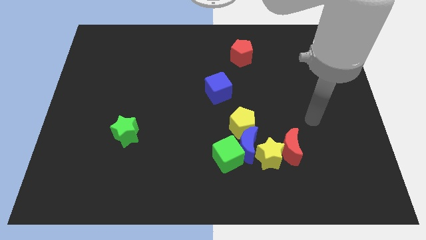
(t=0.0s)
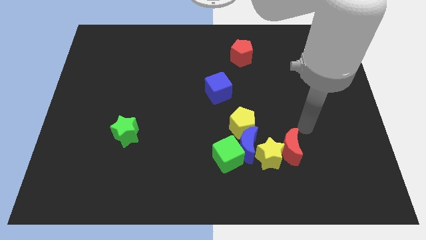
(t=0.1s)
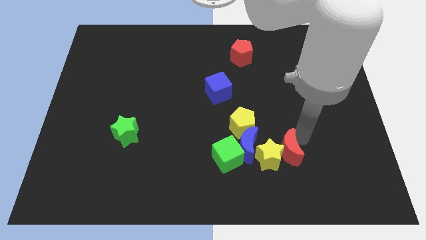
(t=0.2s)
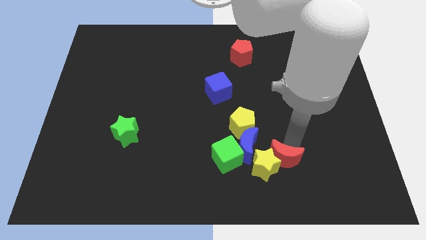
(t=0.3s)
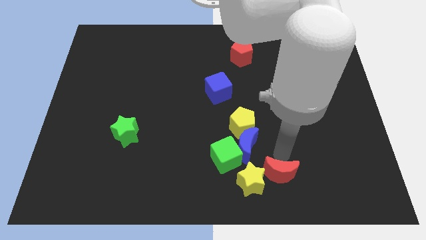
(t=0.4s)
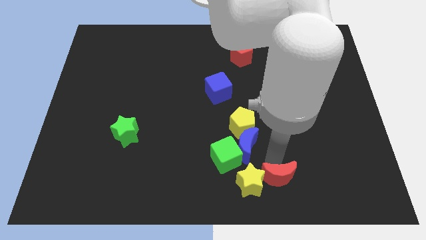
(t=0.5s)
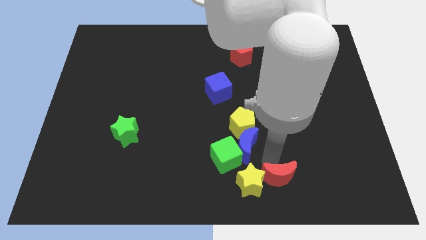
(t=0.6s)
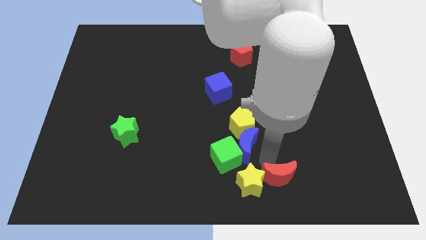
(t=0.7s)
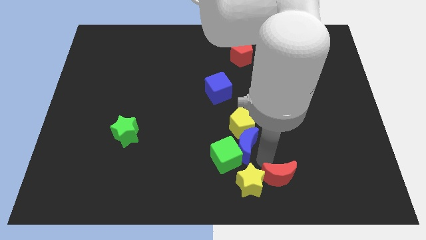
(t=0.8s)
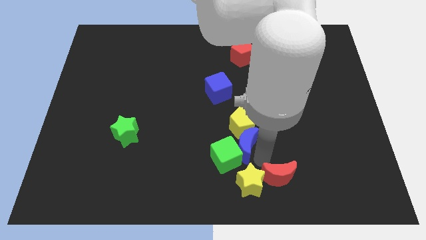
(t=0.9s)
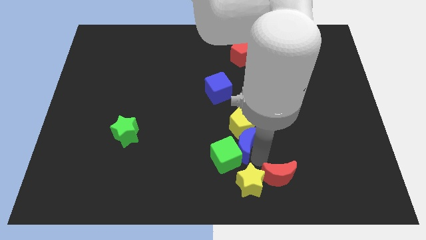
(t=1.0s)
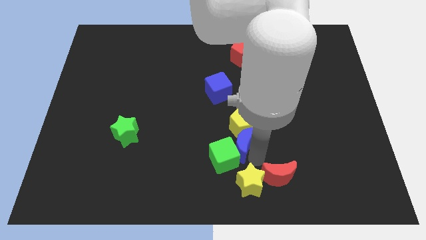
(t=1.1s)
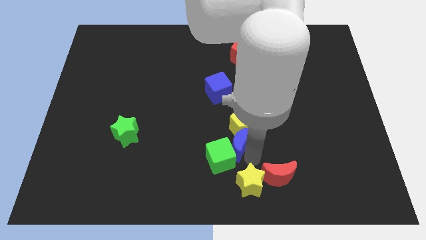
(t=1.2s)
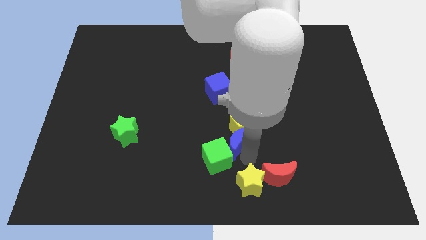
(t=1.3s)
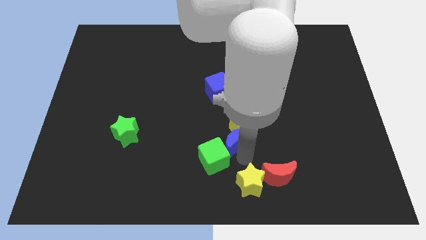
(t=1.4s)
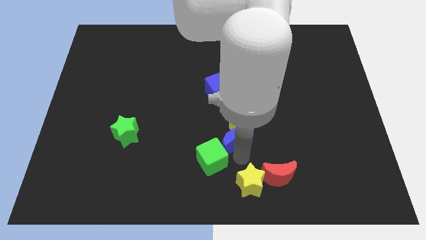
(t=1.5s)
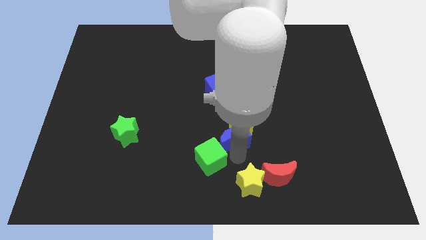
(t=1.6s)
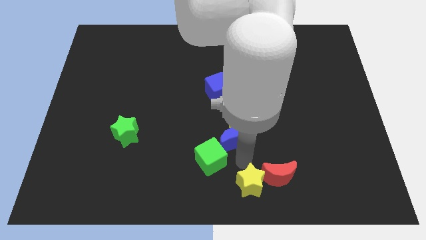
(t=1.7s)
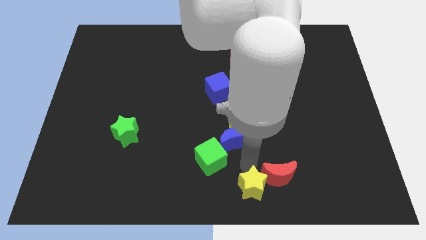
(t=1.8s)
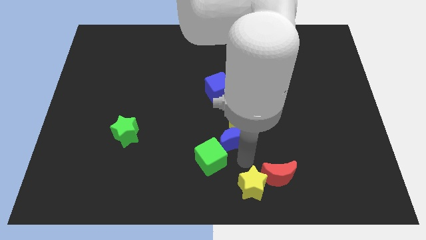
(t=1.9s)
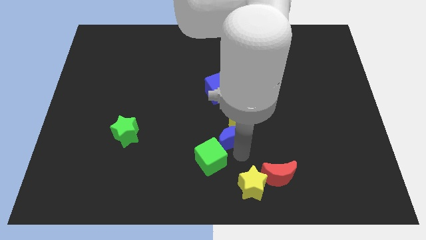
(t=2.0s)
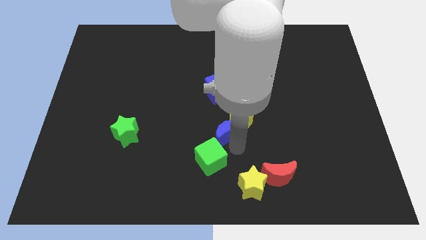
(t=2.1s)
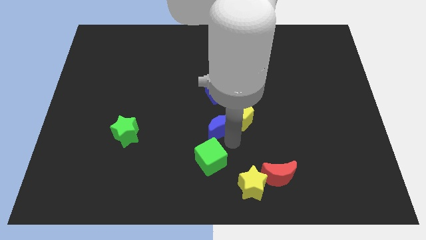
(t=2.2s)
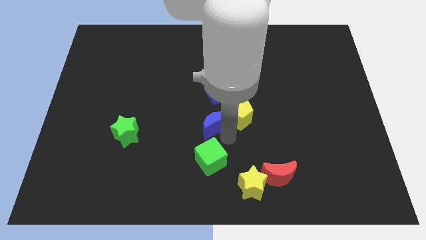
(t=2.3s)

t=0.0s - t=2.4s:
pull the blue moon apart from the group of blocks

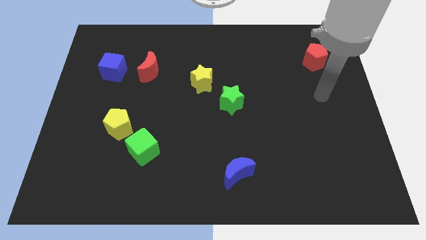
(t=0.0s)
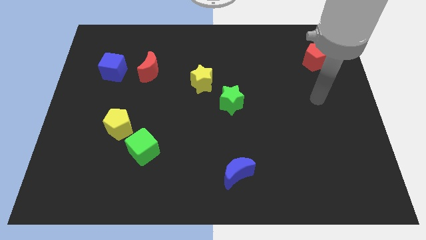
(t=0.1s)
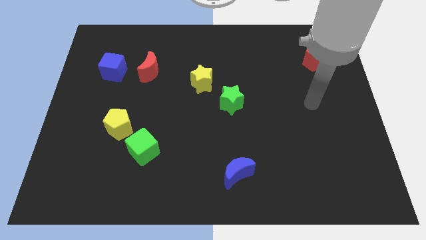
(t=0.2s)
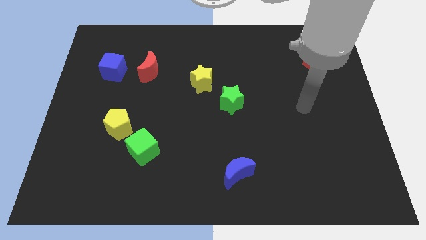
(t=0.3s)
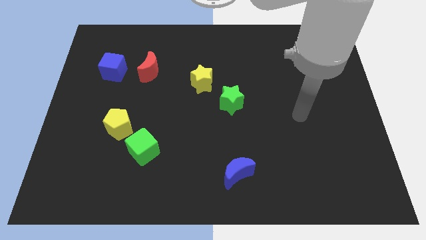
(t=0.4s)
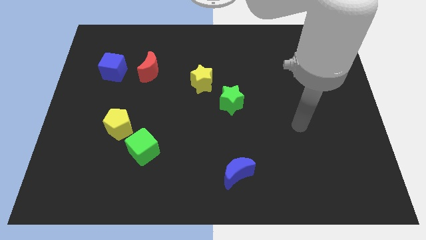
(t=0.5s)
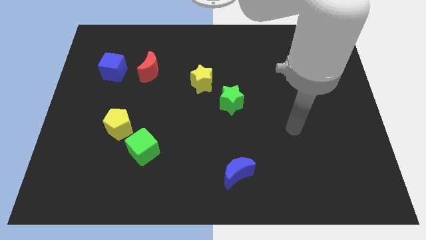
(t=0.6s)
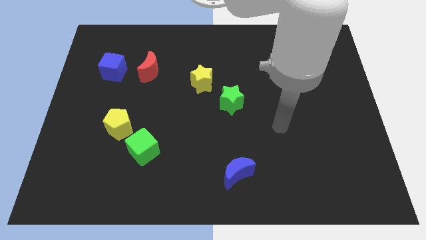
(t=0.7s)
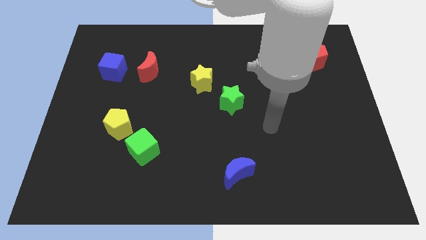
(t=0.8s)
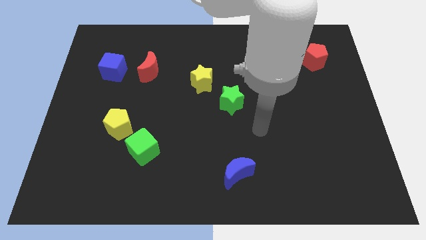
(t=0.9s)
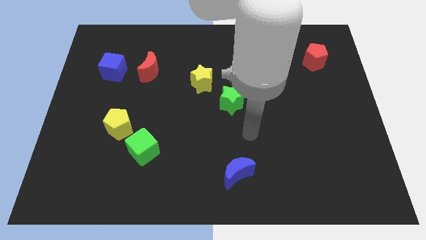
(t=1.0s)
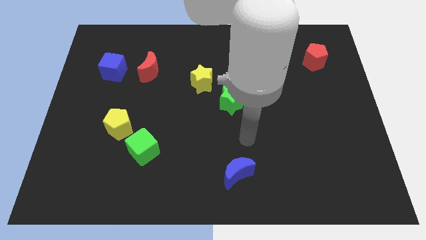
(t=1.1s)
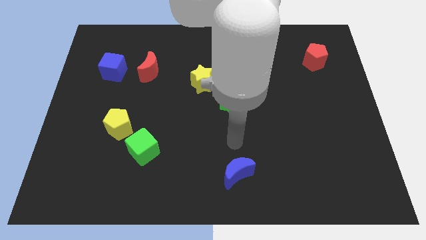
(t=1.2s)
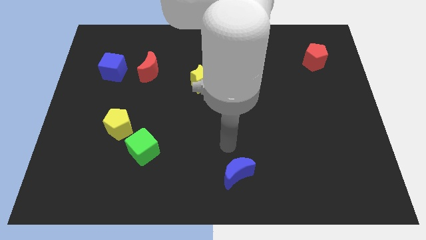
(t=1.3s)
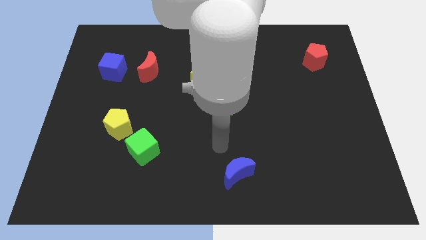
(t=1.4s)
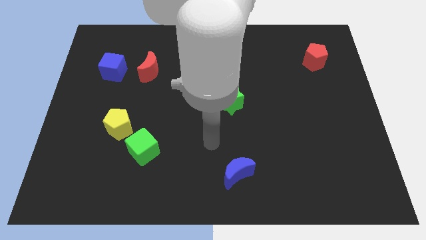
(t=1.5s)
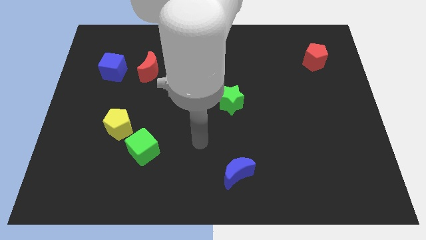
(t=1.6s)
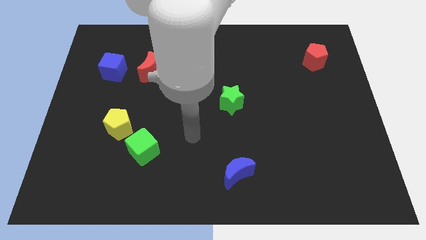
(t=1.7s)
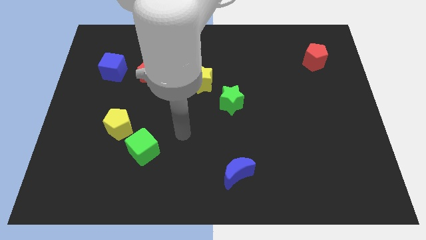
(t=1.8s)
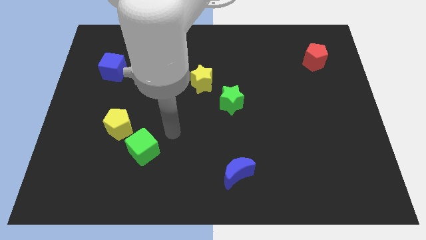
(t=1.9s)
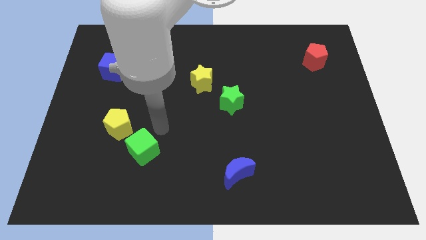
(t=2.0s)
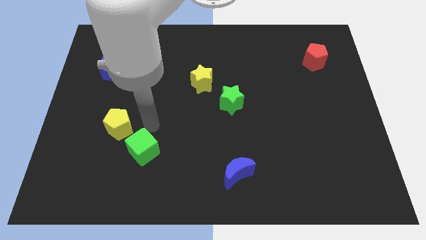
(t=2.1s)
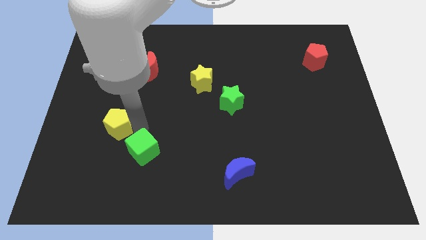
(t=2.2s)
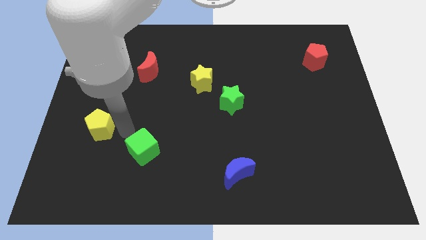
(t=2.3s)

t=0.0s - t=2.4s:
pull the green cube apart from the yellow pentagon

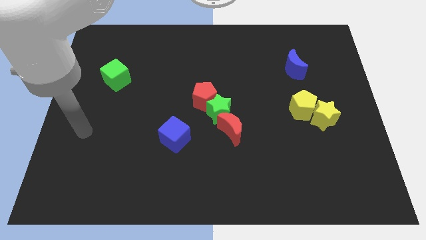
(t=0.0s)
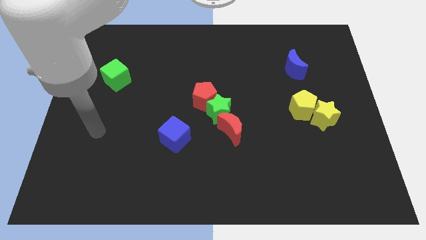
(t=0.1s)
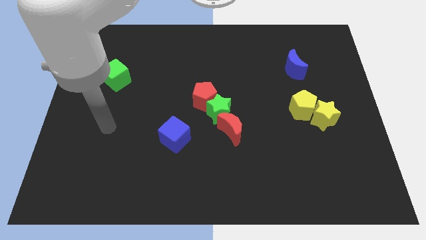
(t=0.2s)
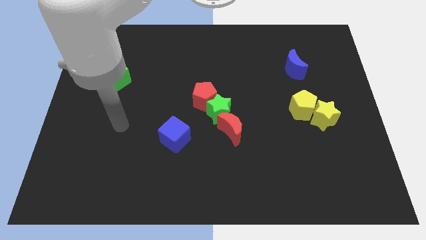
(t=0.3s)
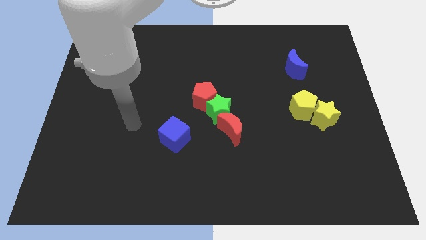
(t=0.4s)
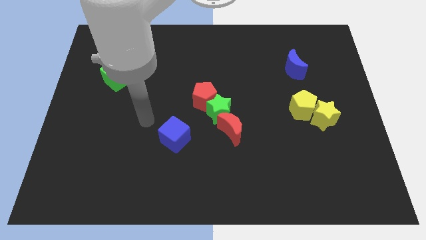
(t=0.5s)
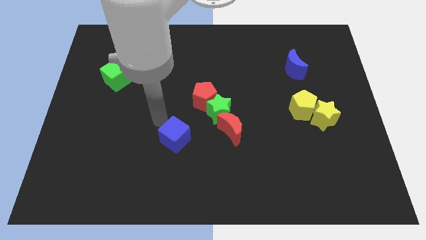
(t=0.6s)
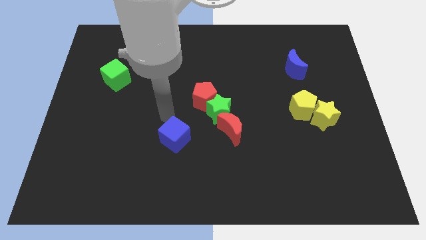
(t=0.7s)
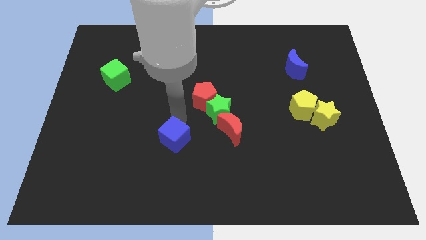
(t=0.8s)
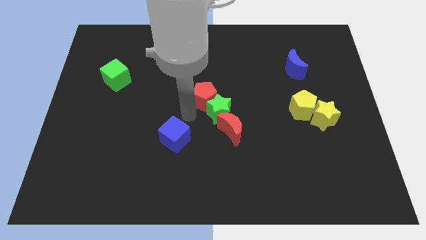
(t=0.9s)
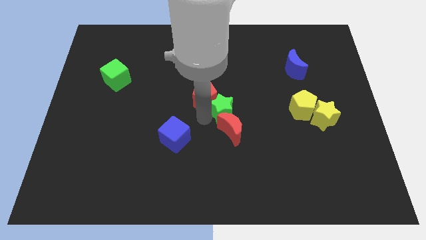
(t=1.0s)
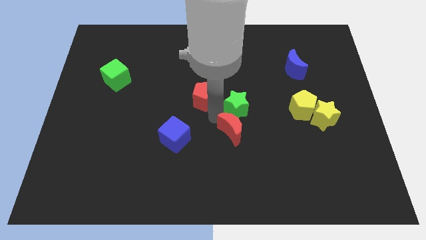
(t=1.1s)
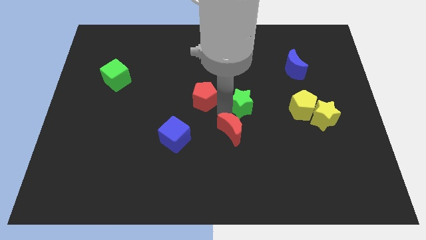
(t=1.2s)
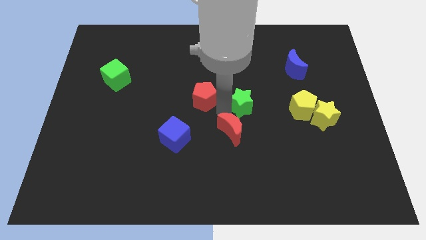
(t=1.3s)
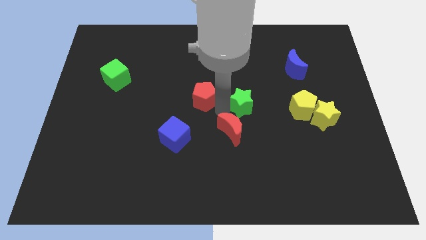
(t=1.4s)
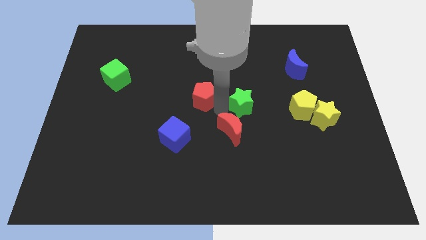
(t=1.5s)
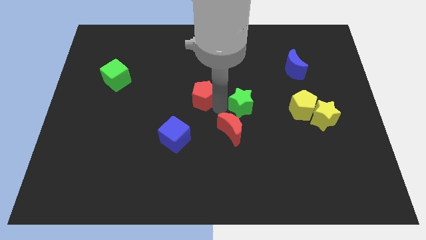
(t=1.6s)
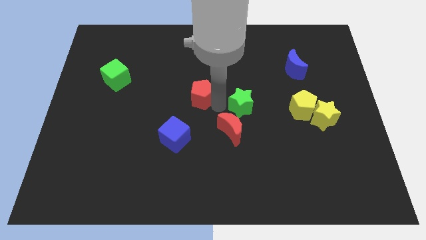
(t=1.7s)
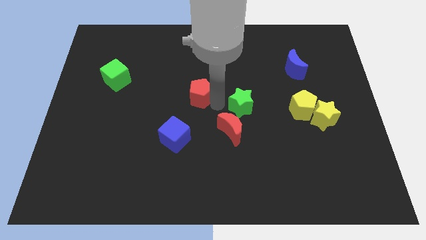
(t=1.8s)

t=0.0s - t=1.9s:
separate the red pentagon from the green star

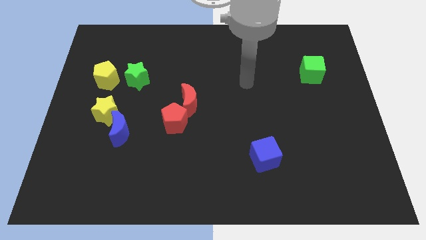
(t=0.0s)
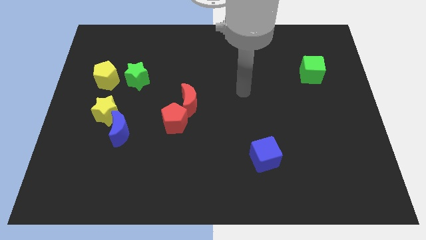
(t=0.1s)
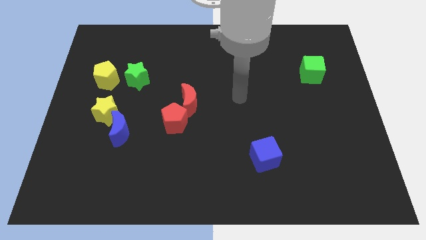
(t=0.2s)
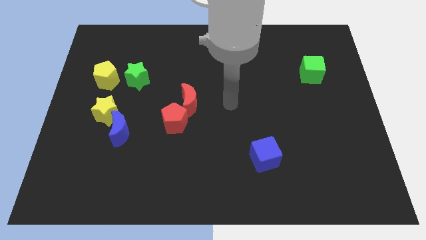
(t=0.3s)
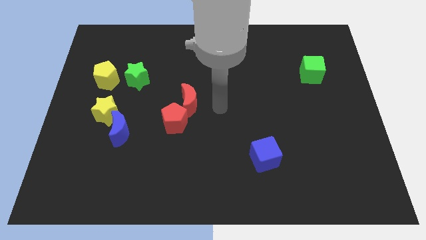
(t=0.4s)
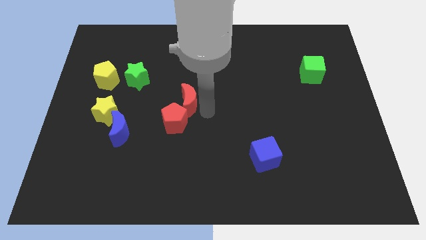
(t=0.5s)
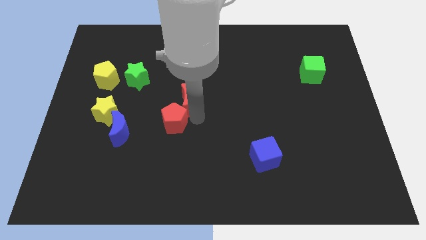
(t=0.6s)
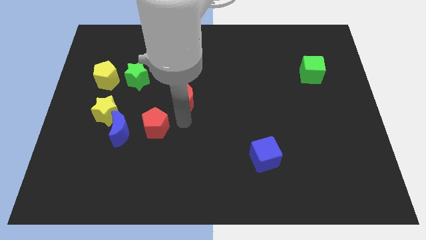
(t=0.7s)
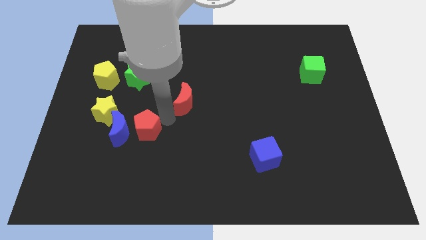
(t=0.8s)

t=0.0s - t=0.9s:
separate the red moon from the red pentagon

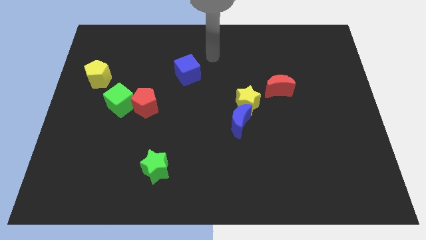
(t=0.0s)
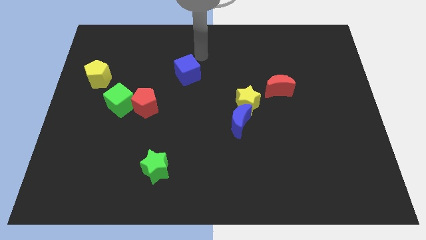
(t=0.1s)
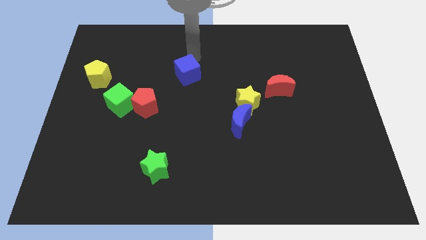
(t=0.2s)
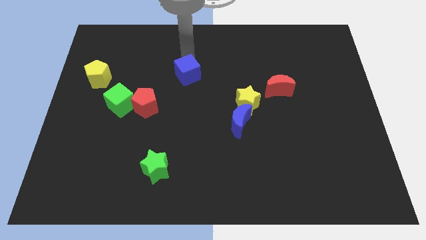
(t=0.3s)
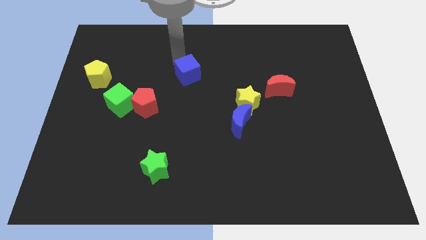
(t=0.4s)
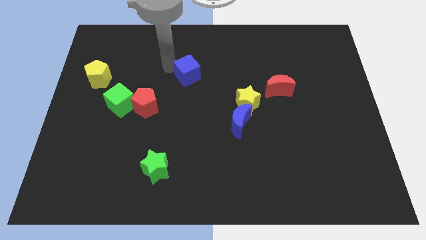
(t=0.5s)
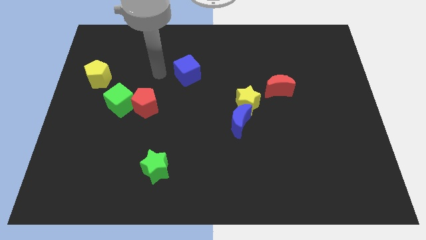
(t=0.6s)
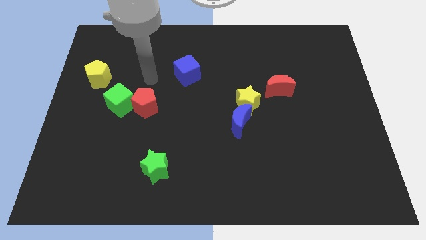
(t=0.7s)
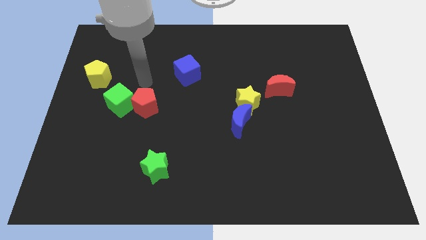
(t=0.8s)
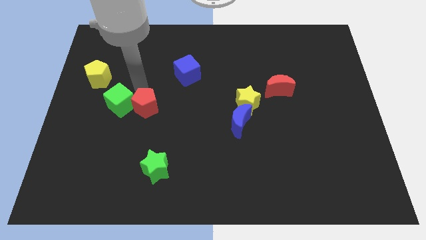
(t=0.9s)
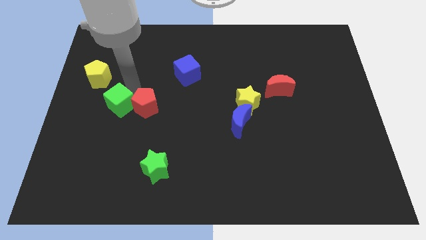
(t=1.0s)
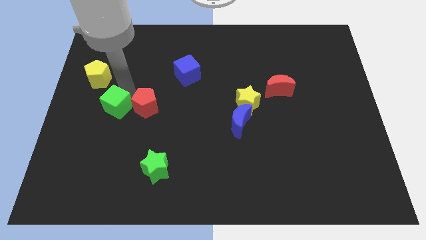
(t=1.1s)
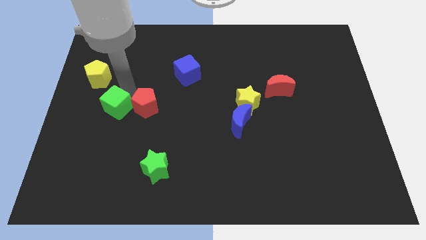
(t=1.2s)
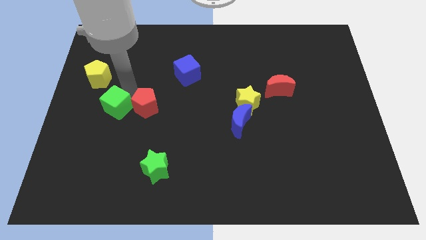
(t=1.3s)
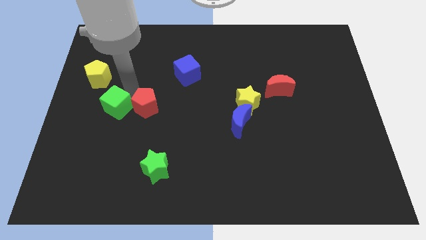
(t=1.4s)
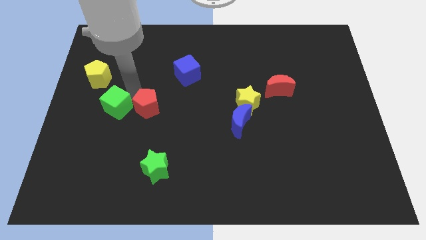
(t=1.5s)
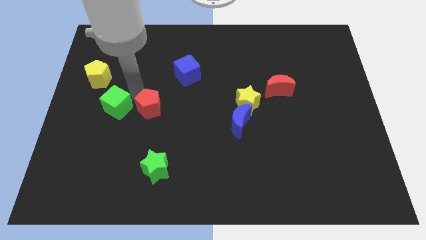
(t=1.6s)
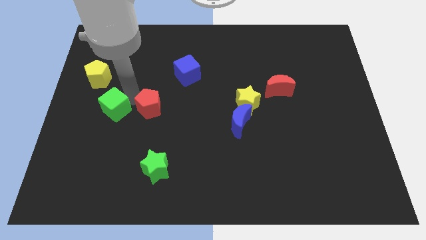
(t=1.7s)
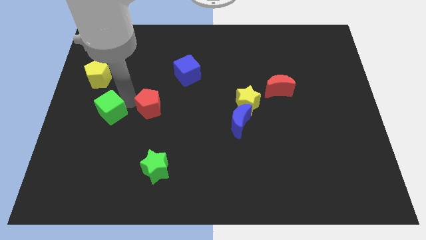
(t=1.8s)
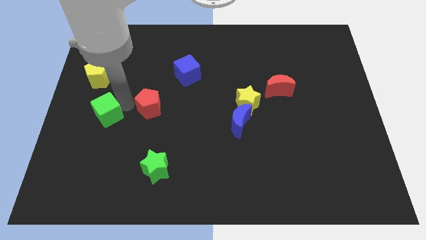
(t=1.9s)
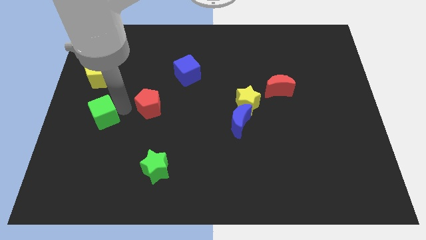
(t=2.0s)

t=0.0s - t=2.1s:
pull the red pentagon apart from the green cube
